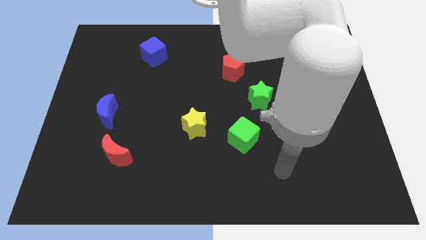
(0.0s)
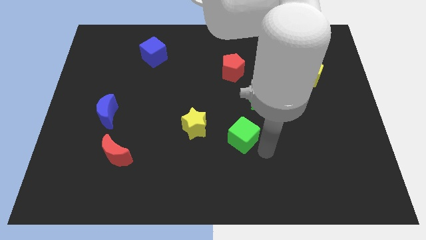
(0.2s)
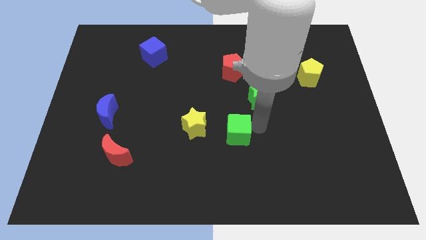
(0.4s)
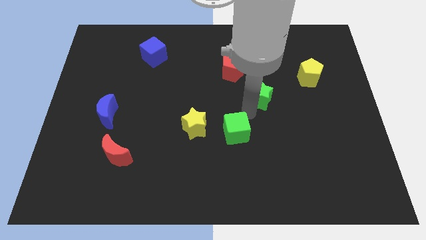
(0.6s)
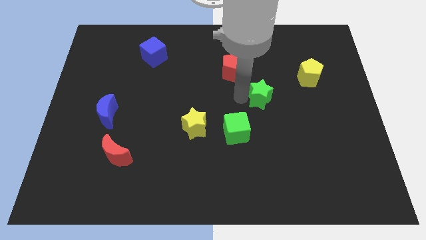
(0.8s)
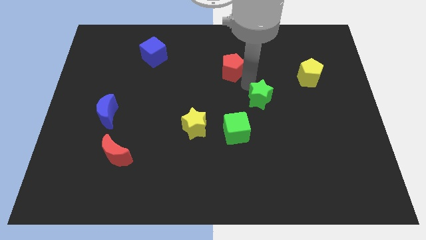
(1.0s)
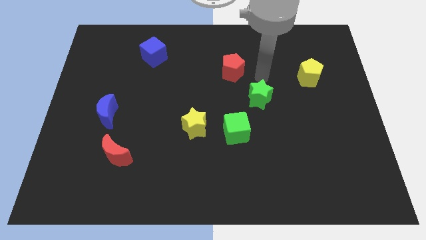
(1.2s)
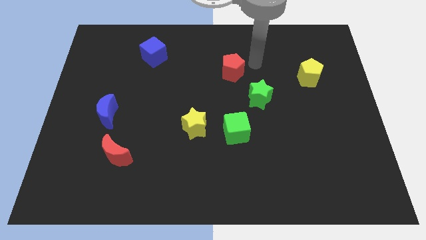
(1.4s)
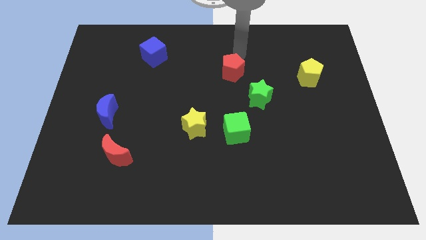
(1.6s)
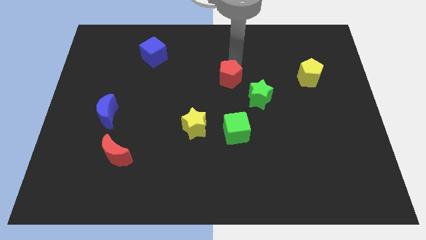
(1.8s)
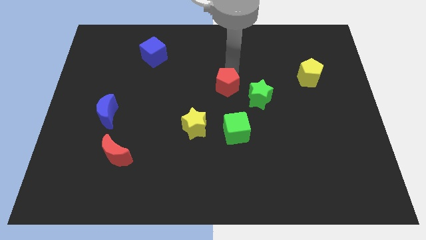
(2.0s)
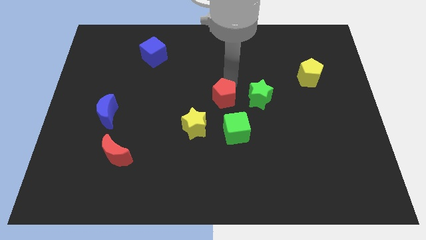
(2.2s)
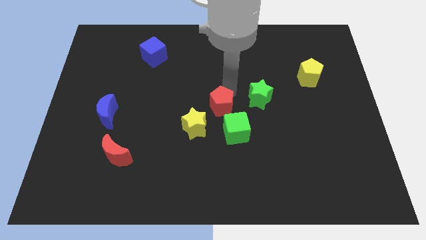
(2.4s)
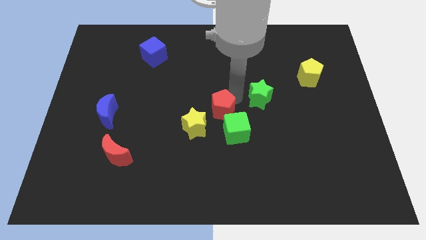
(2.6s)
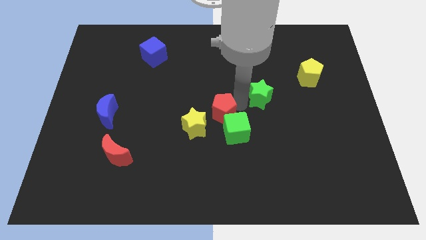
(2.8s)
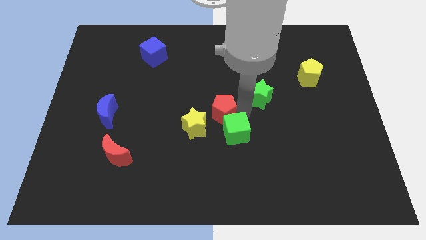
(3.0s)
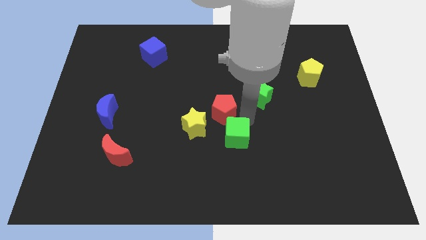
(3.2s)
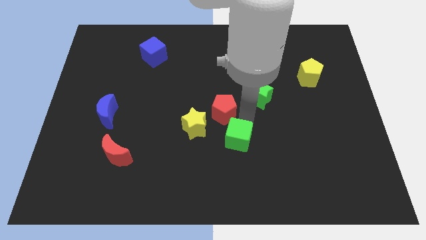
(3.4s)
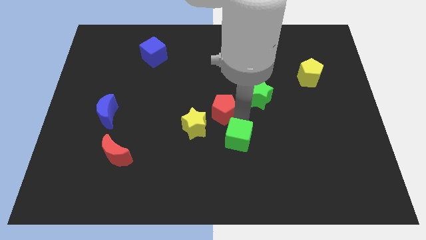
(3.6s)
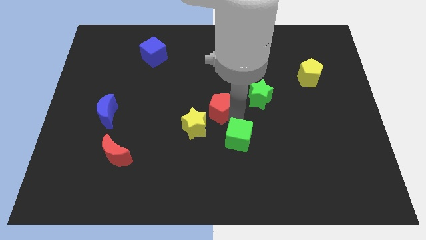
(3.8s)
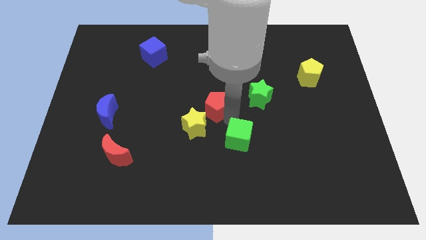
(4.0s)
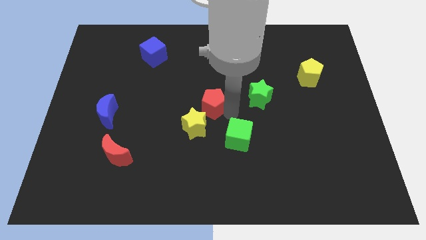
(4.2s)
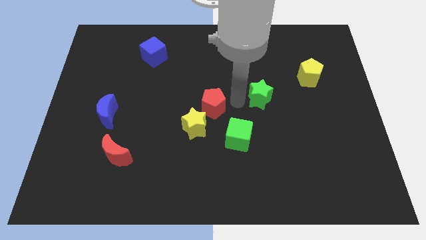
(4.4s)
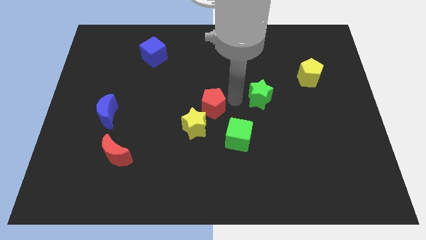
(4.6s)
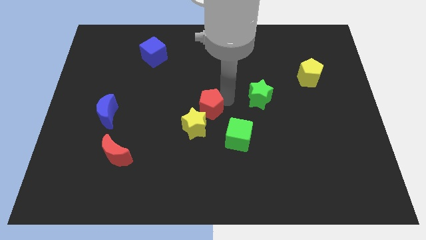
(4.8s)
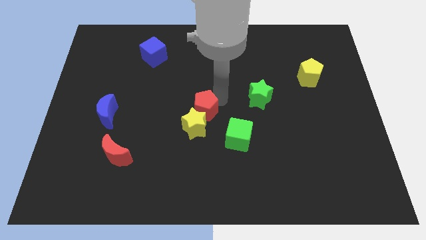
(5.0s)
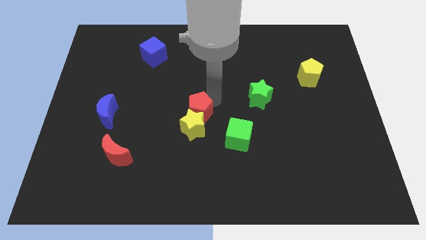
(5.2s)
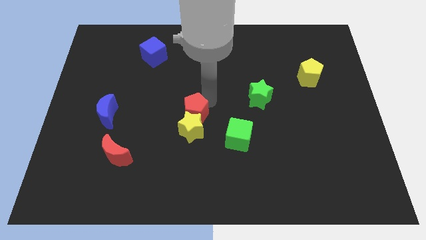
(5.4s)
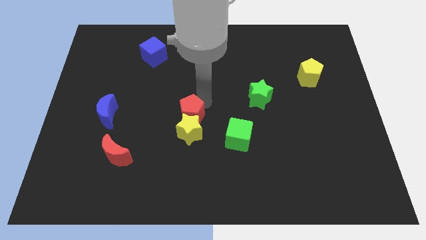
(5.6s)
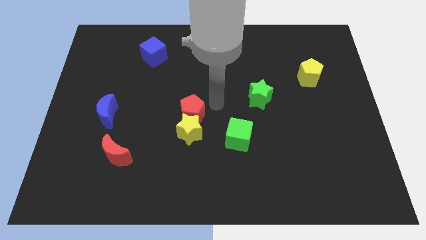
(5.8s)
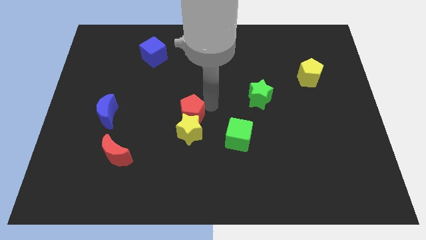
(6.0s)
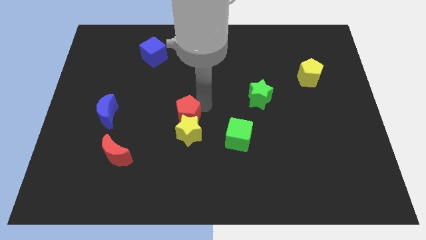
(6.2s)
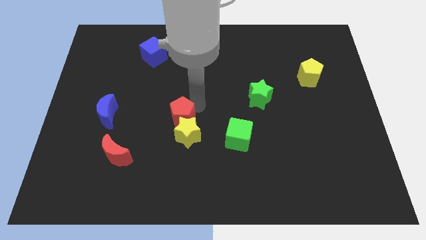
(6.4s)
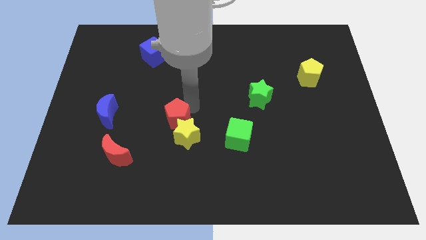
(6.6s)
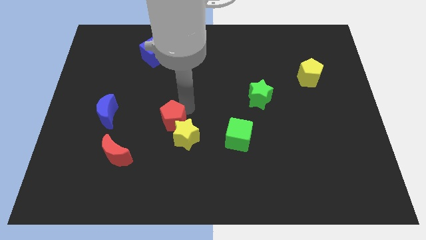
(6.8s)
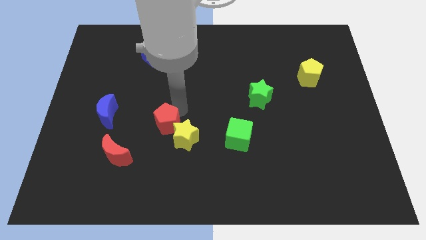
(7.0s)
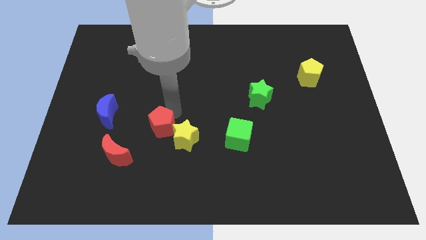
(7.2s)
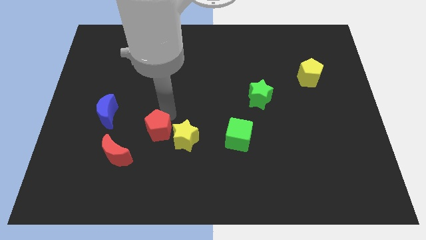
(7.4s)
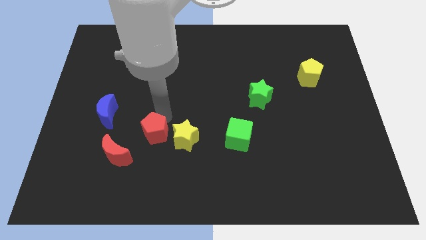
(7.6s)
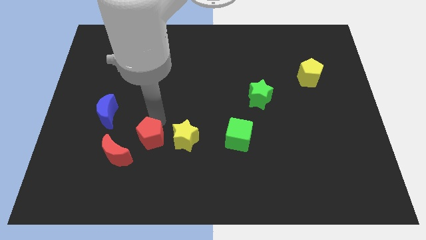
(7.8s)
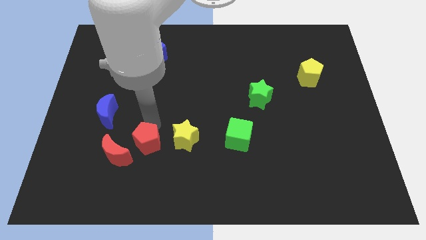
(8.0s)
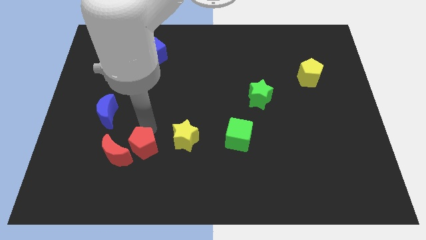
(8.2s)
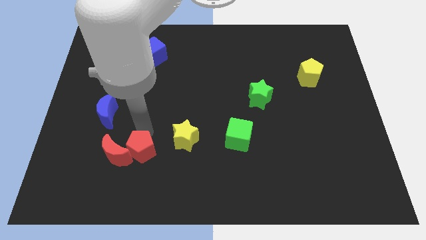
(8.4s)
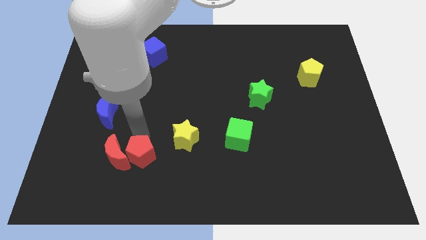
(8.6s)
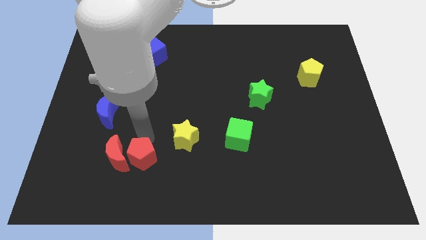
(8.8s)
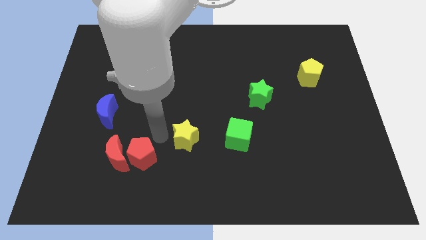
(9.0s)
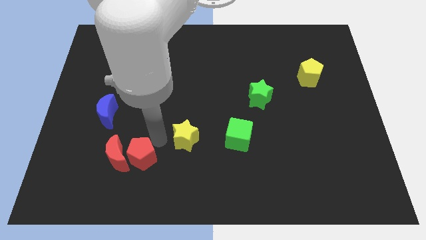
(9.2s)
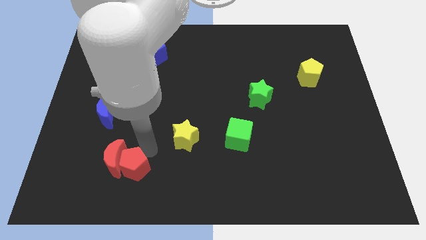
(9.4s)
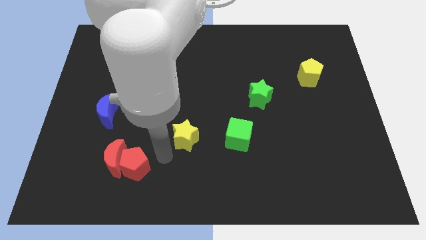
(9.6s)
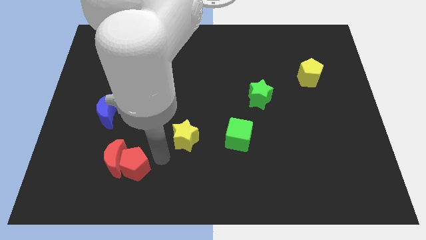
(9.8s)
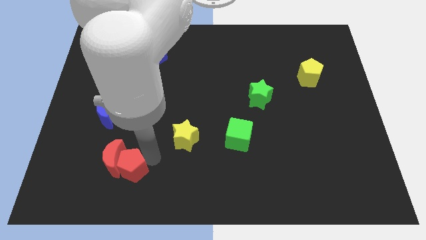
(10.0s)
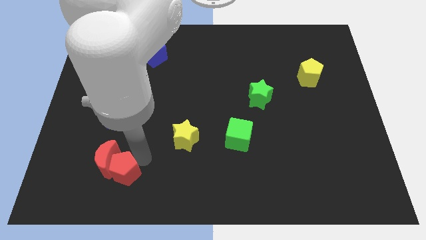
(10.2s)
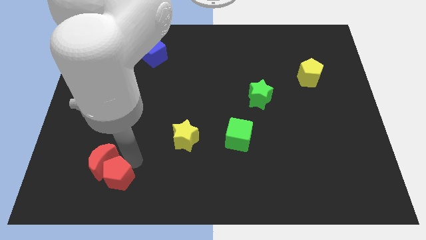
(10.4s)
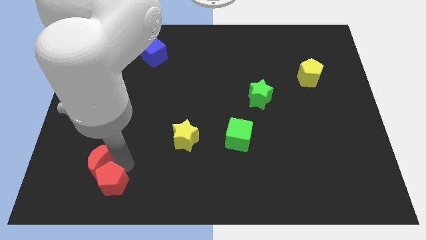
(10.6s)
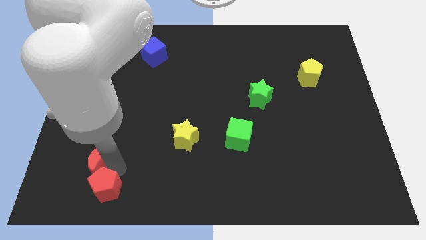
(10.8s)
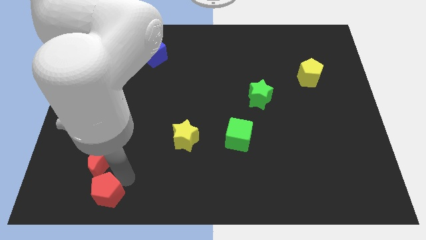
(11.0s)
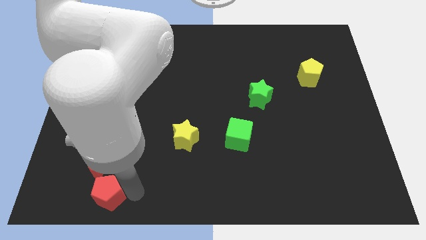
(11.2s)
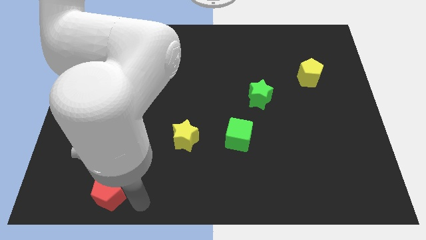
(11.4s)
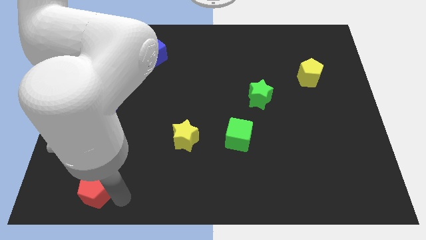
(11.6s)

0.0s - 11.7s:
push the red pentagon to the bottom left of the red moon

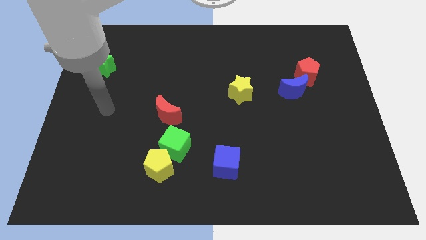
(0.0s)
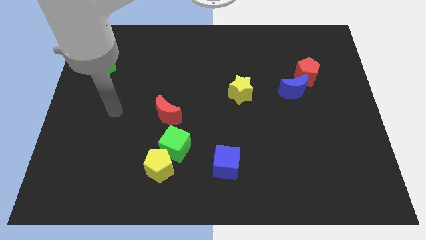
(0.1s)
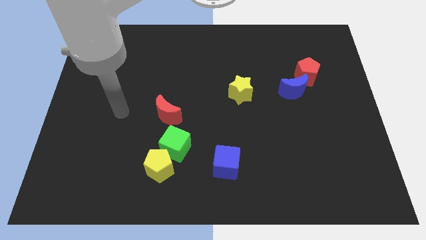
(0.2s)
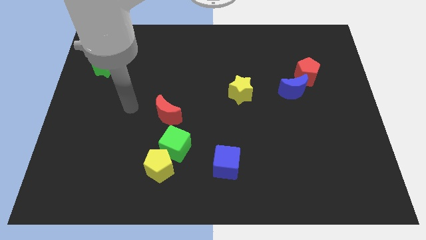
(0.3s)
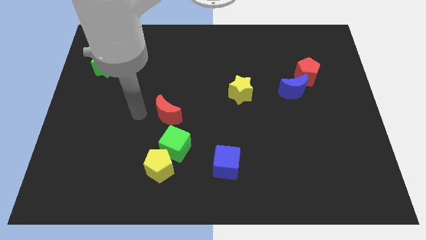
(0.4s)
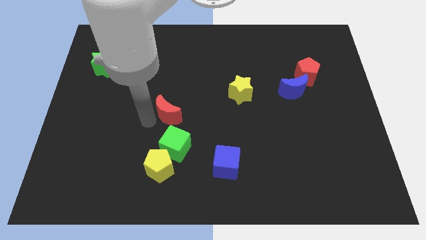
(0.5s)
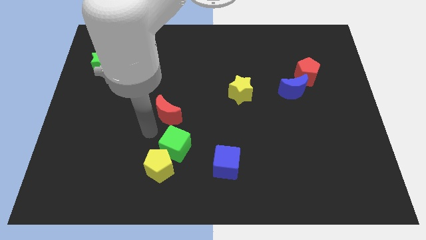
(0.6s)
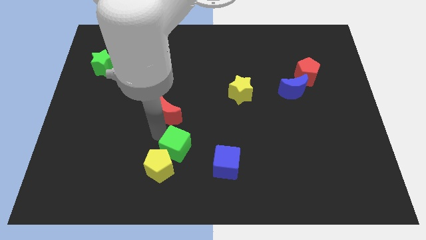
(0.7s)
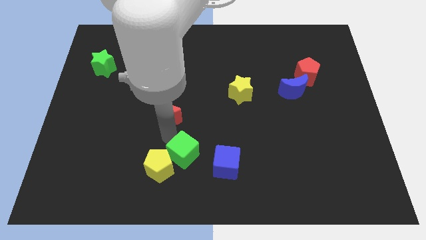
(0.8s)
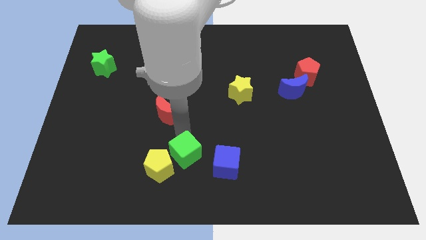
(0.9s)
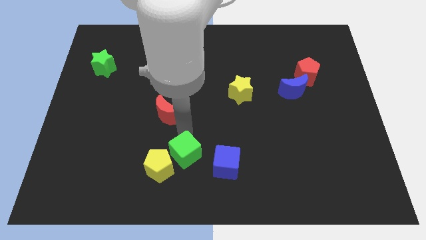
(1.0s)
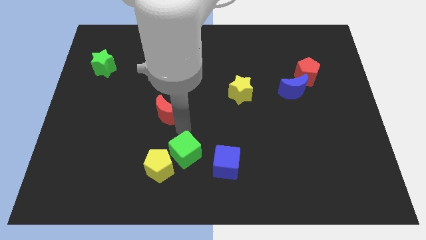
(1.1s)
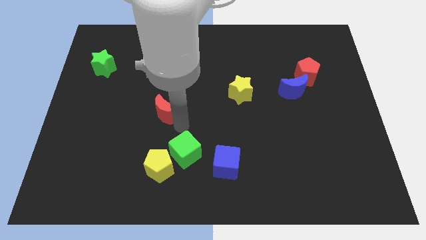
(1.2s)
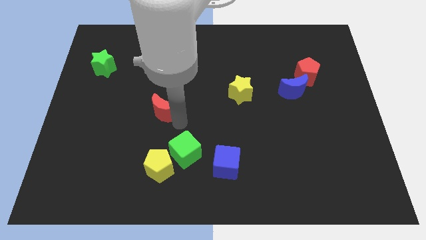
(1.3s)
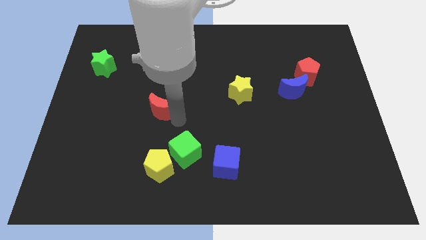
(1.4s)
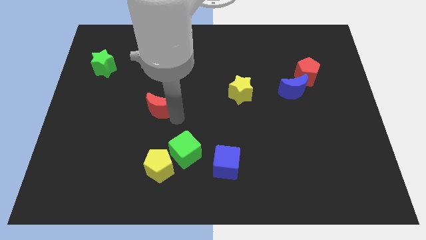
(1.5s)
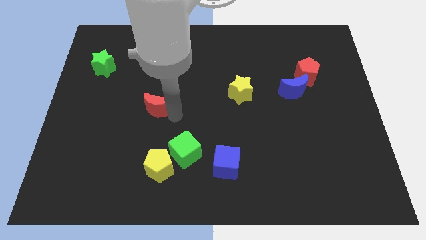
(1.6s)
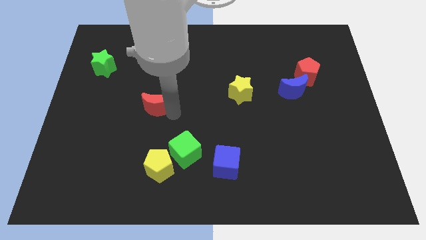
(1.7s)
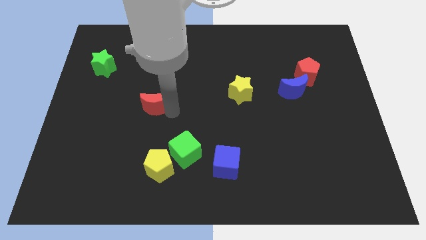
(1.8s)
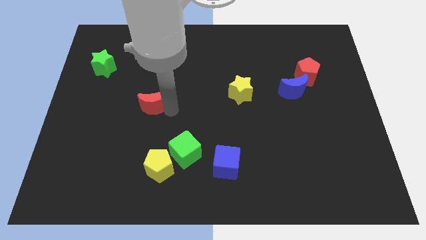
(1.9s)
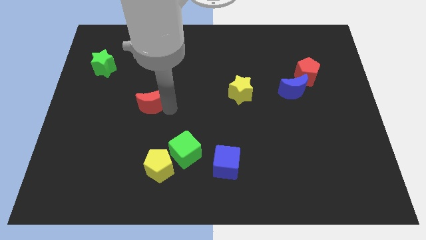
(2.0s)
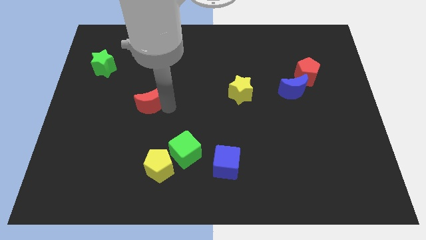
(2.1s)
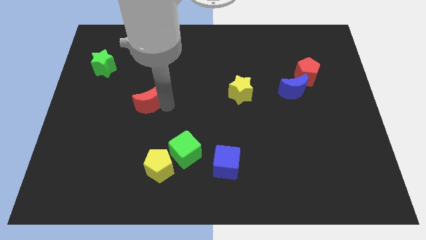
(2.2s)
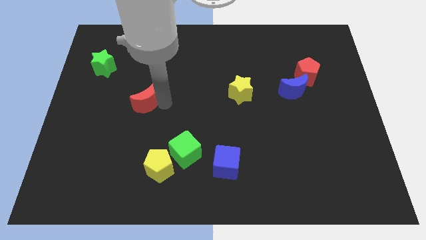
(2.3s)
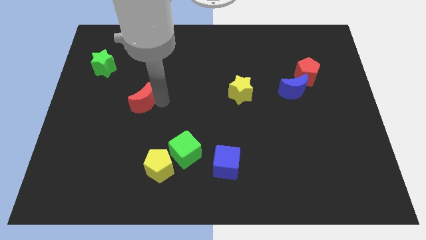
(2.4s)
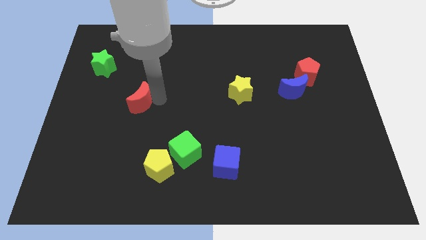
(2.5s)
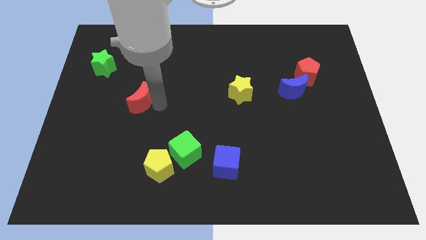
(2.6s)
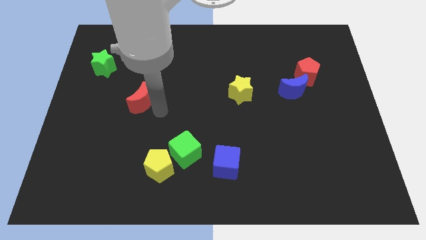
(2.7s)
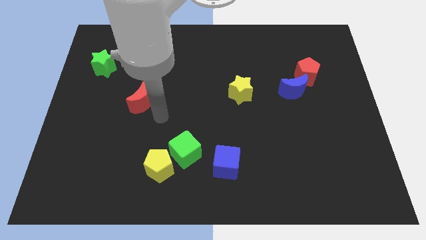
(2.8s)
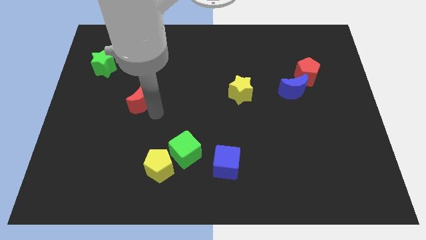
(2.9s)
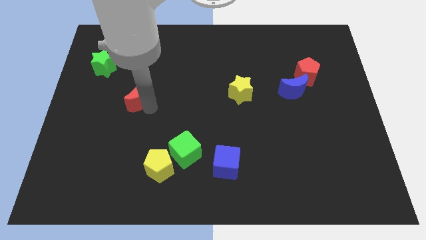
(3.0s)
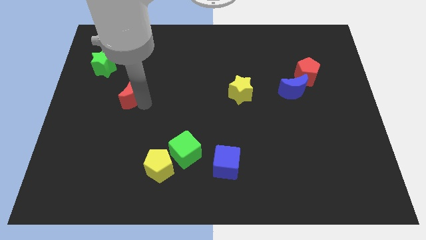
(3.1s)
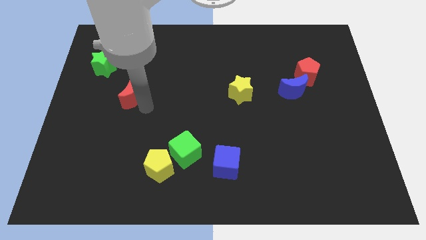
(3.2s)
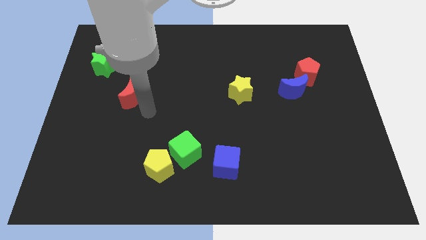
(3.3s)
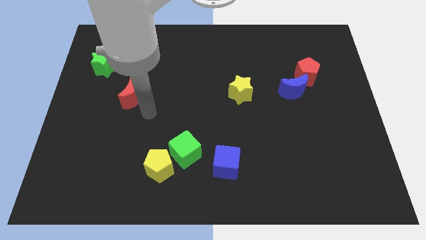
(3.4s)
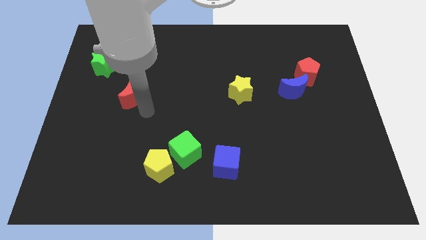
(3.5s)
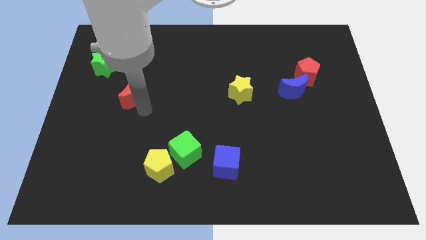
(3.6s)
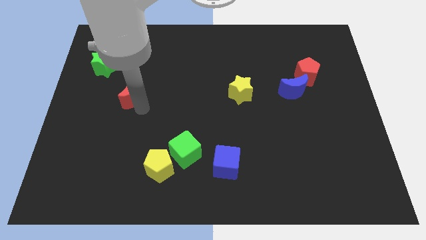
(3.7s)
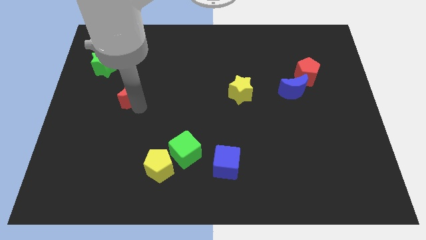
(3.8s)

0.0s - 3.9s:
slide the red moon diagonally down and to the right of the green star
